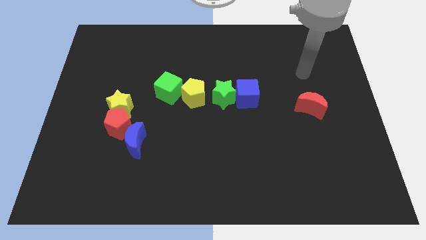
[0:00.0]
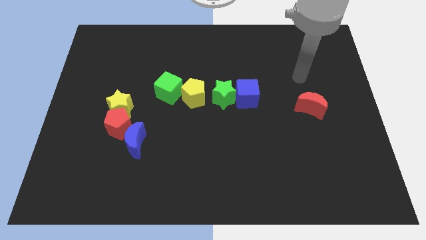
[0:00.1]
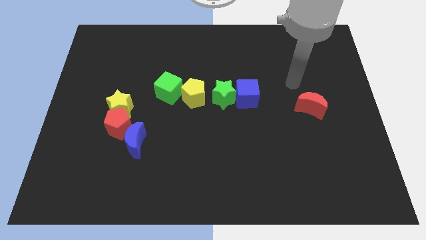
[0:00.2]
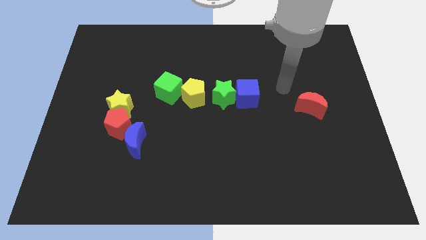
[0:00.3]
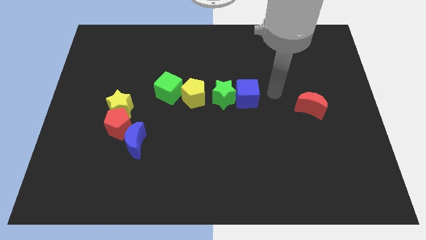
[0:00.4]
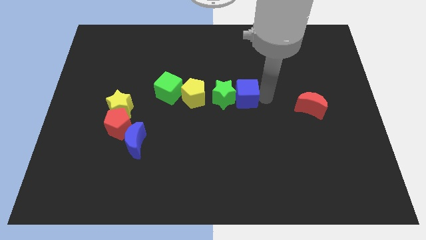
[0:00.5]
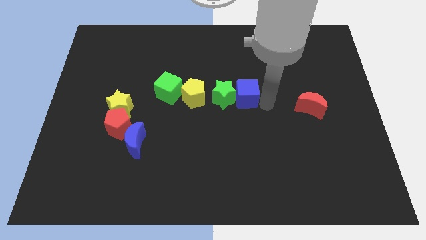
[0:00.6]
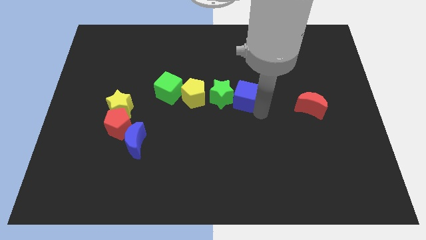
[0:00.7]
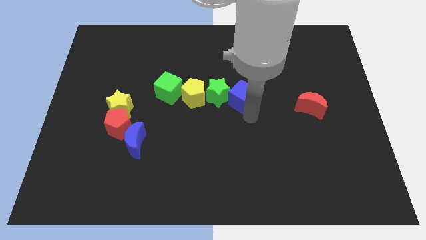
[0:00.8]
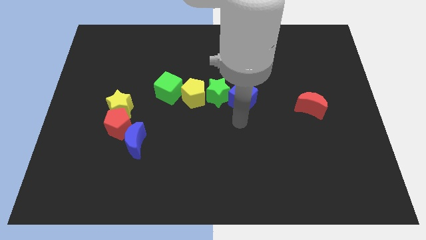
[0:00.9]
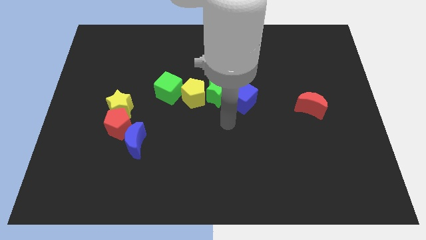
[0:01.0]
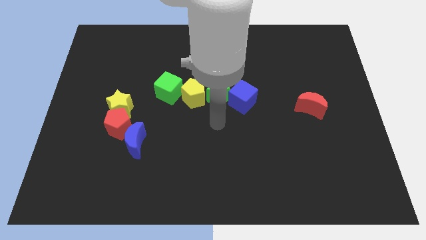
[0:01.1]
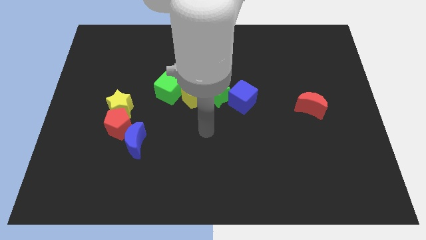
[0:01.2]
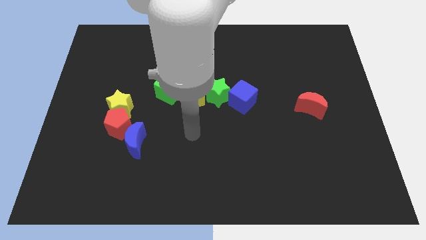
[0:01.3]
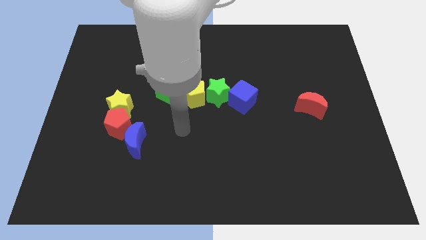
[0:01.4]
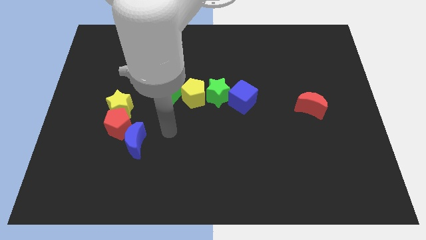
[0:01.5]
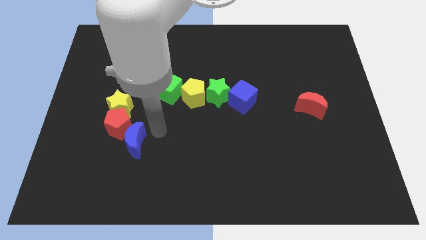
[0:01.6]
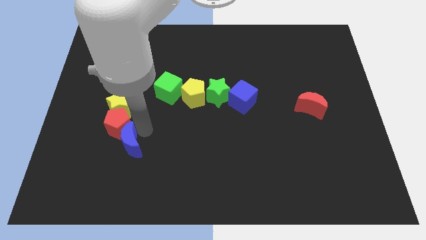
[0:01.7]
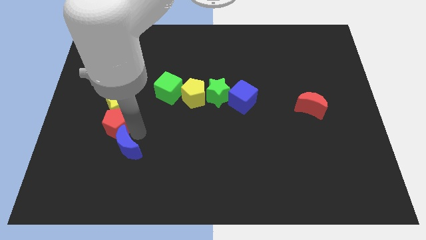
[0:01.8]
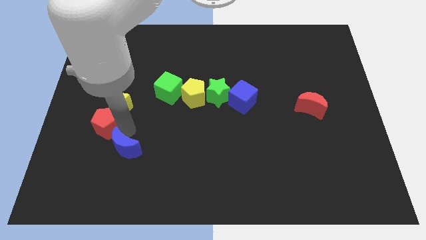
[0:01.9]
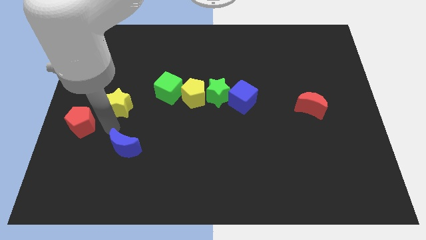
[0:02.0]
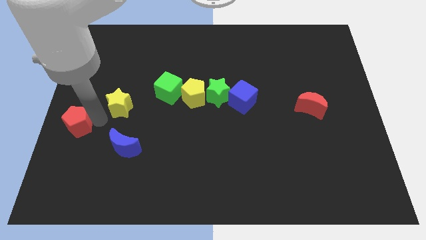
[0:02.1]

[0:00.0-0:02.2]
separate the yellow star from the red pentagon

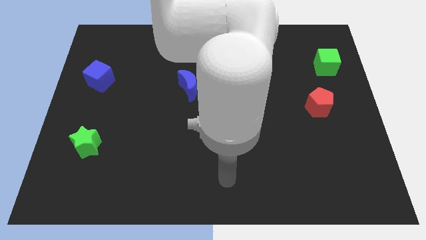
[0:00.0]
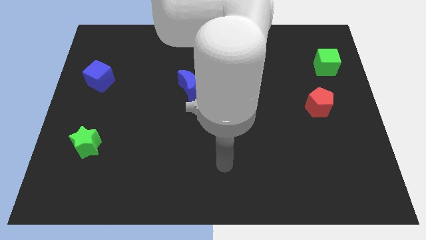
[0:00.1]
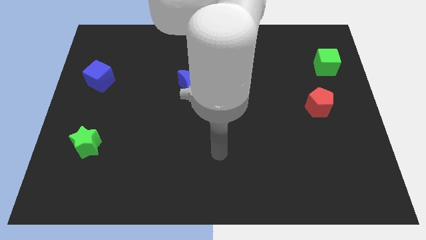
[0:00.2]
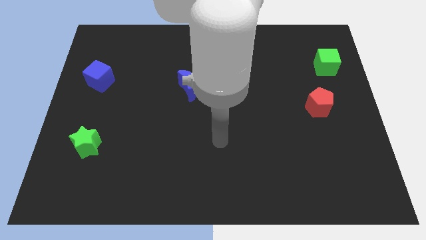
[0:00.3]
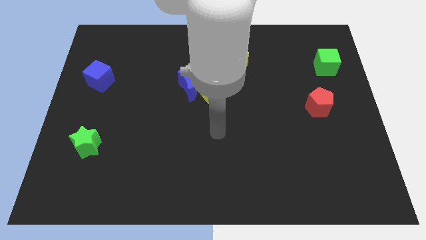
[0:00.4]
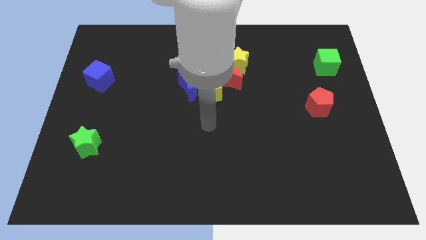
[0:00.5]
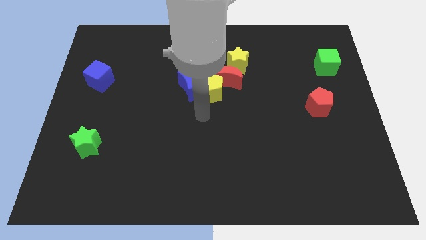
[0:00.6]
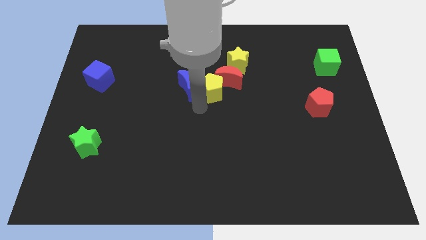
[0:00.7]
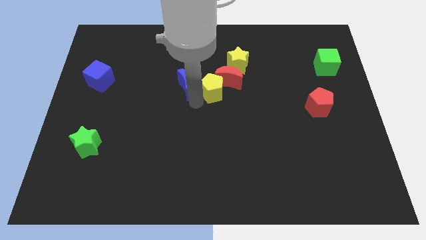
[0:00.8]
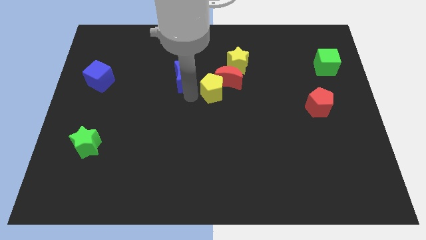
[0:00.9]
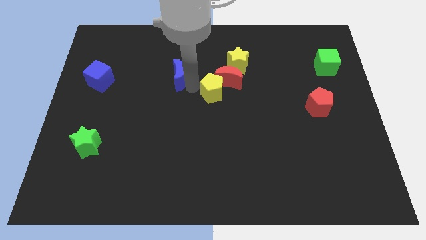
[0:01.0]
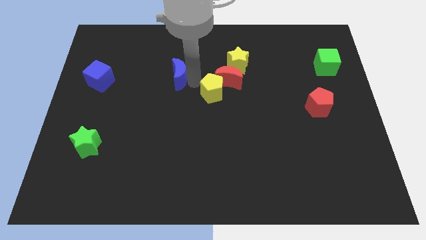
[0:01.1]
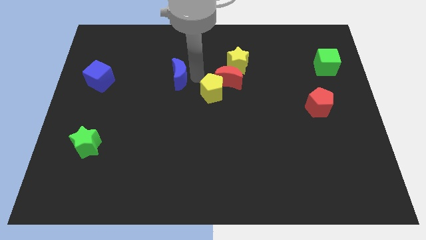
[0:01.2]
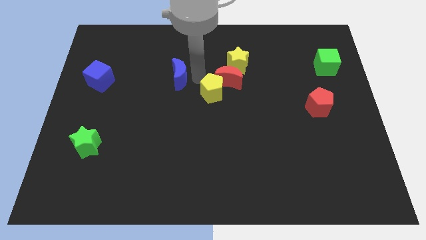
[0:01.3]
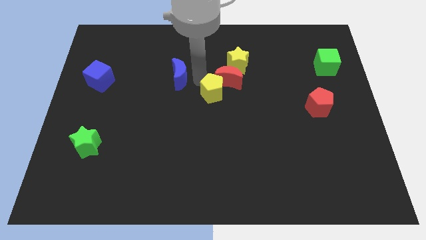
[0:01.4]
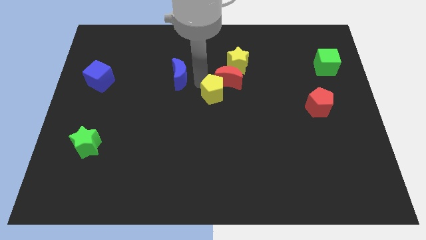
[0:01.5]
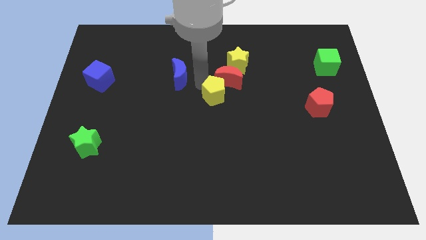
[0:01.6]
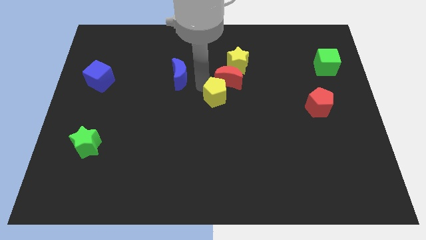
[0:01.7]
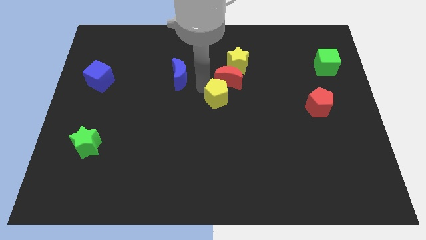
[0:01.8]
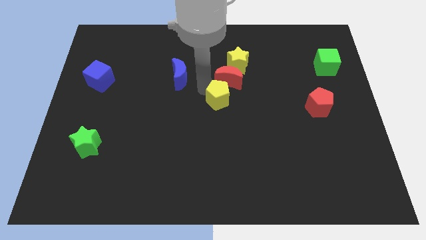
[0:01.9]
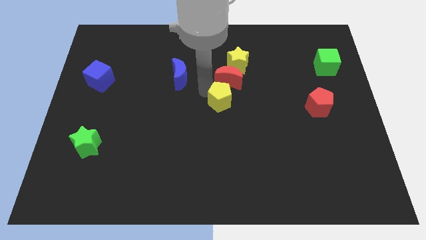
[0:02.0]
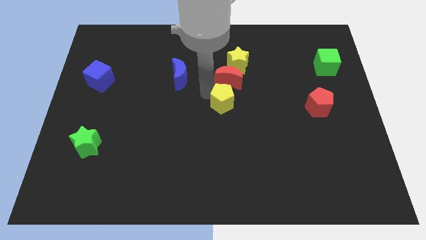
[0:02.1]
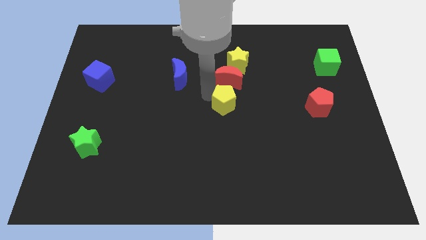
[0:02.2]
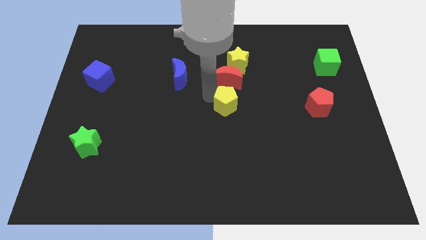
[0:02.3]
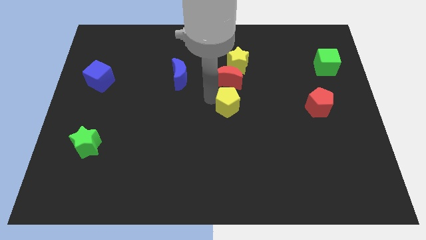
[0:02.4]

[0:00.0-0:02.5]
move the yellow pentagon away from the red moon and blue moon

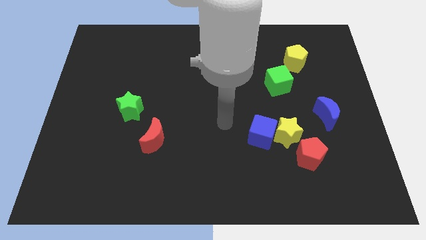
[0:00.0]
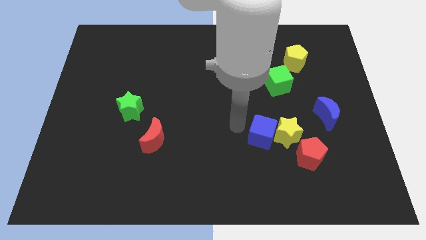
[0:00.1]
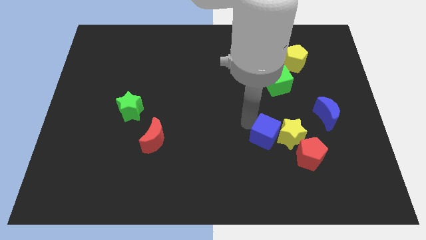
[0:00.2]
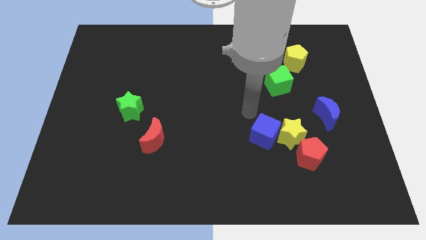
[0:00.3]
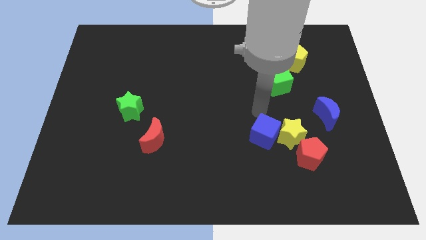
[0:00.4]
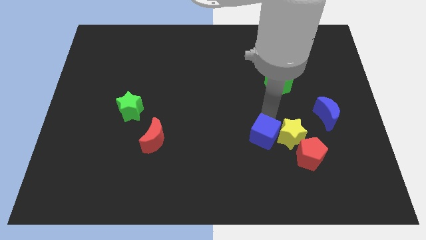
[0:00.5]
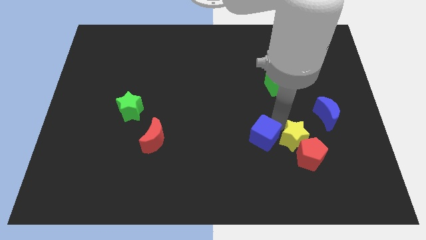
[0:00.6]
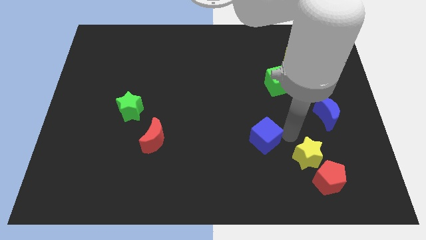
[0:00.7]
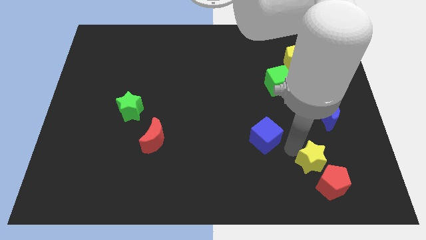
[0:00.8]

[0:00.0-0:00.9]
separate the blue cube from the yellow star

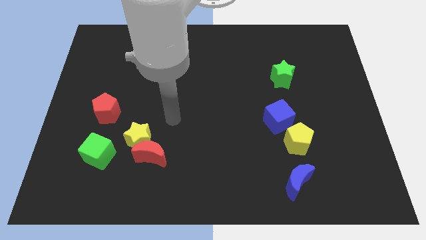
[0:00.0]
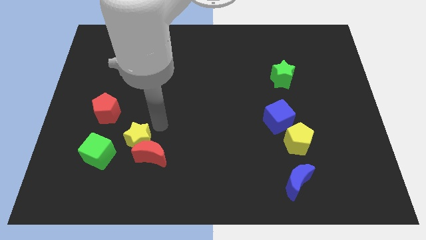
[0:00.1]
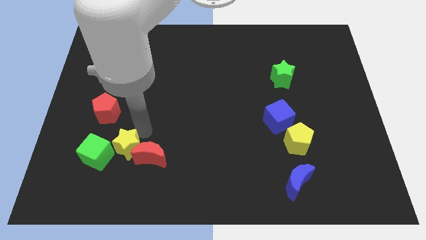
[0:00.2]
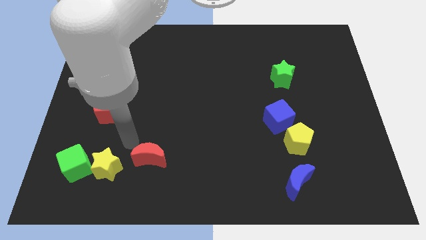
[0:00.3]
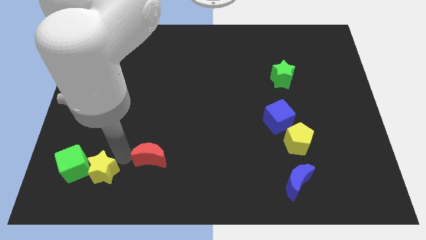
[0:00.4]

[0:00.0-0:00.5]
pull the red moon apart from the yellow star

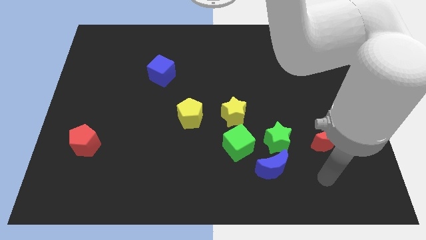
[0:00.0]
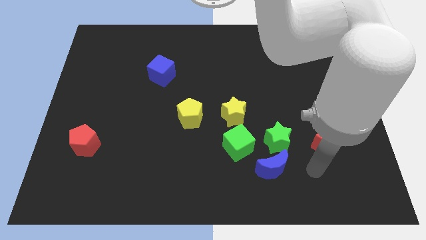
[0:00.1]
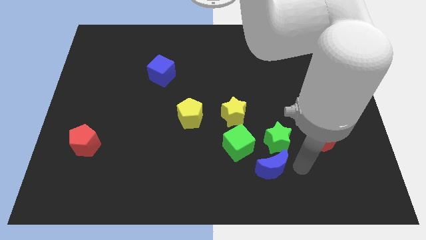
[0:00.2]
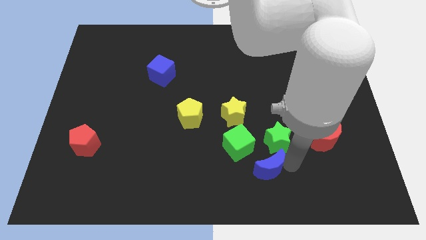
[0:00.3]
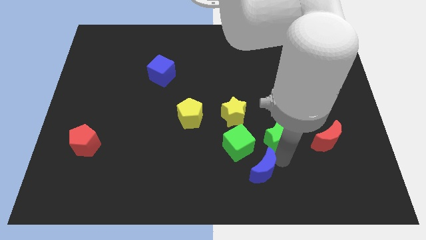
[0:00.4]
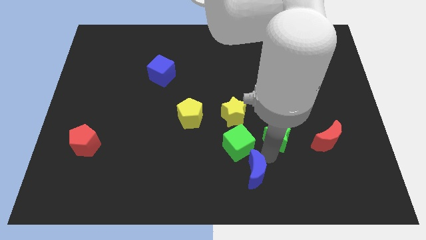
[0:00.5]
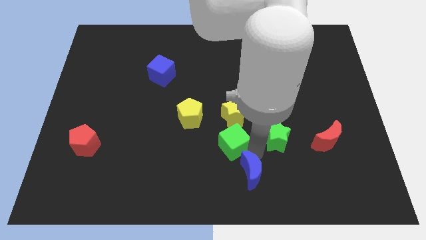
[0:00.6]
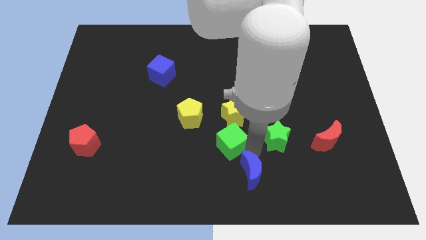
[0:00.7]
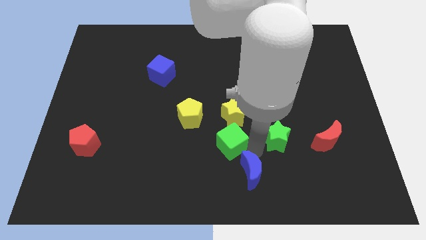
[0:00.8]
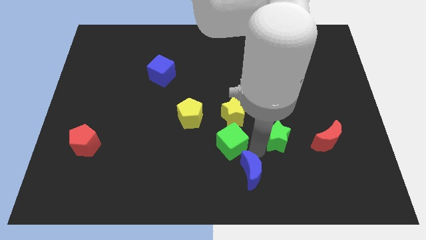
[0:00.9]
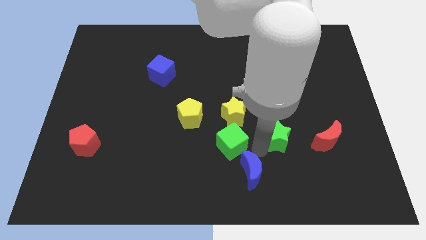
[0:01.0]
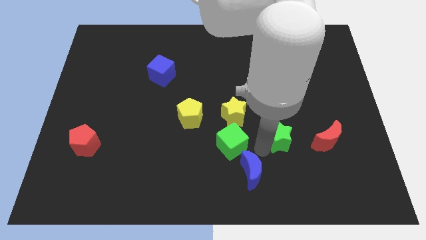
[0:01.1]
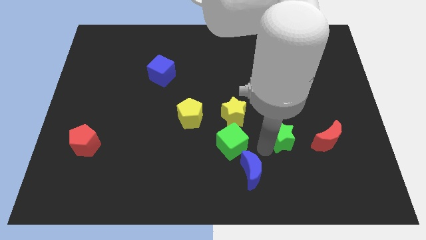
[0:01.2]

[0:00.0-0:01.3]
pull the green star apart from the blue moon and green cube

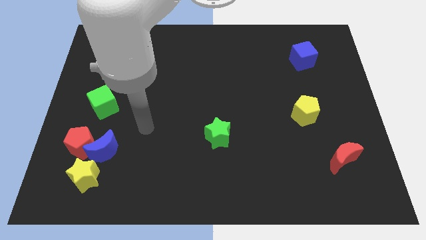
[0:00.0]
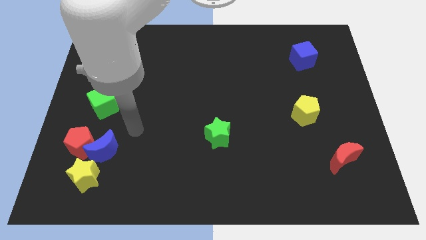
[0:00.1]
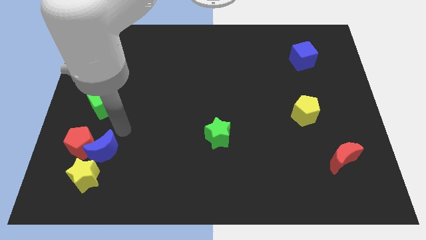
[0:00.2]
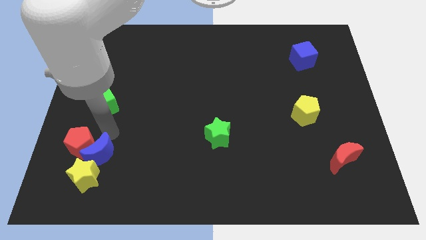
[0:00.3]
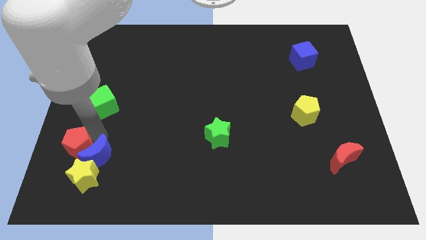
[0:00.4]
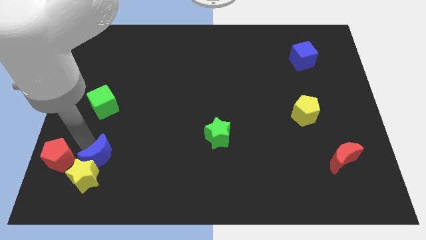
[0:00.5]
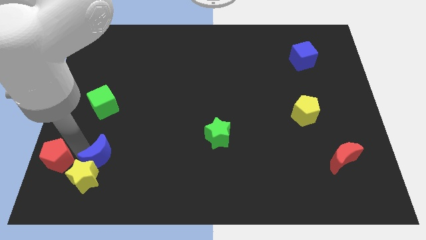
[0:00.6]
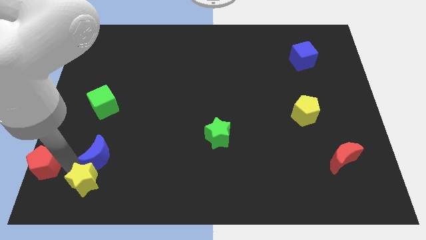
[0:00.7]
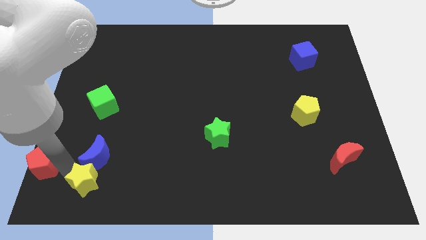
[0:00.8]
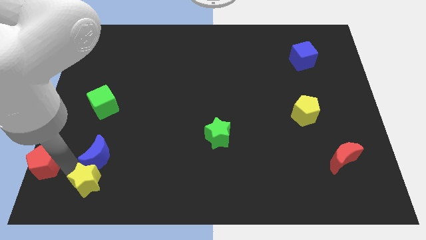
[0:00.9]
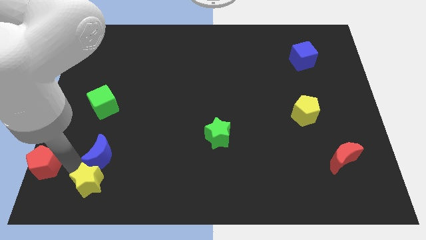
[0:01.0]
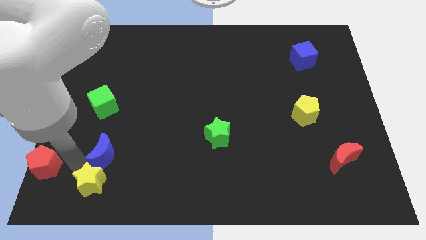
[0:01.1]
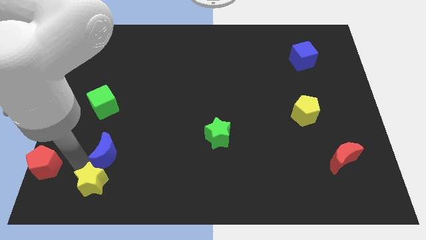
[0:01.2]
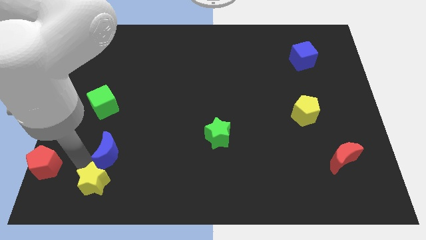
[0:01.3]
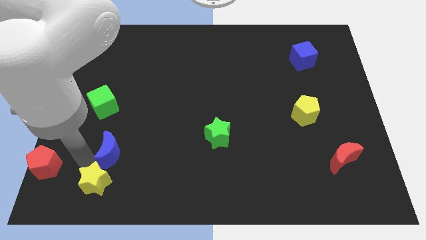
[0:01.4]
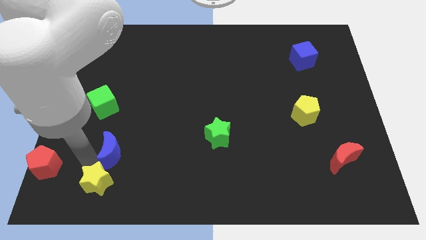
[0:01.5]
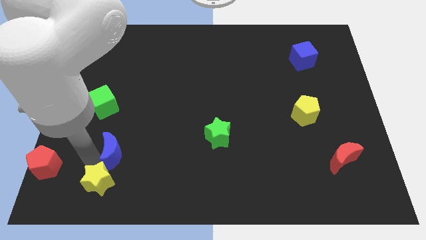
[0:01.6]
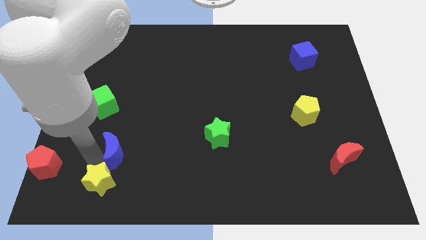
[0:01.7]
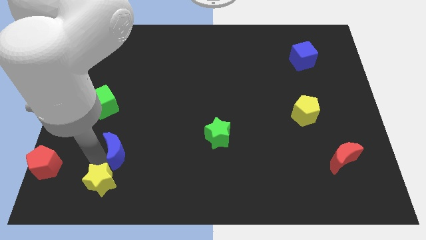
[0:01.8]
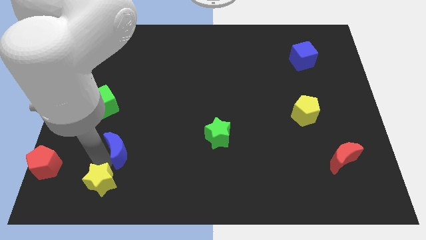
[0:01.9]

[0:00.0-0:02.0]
separate the blue moon from the red pentagon and yellow star
